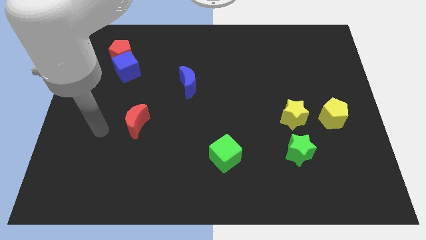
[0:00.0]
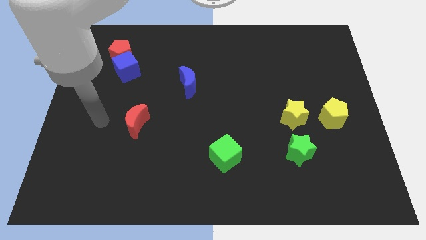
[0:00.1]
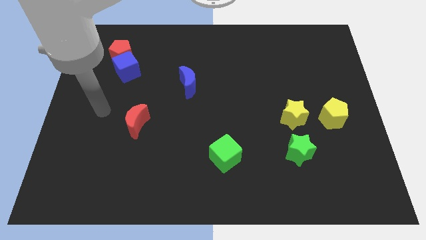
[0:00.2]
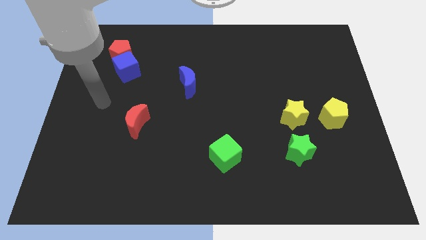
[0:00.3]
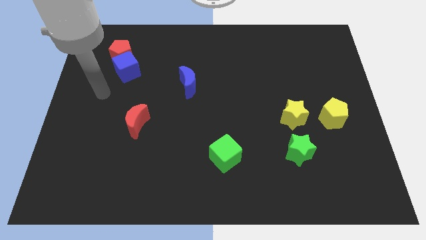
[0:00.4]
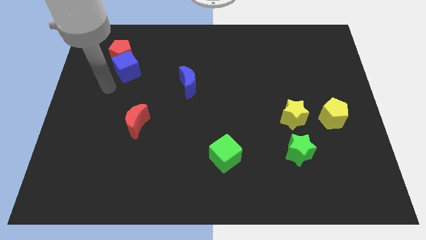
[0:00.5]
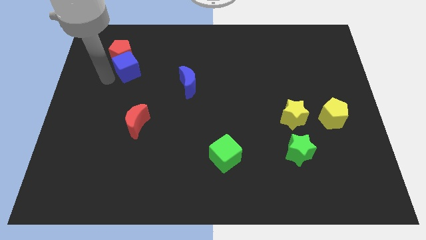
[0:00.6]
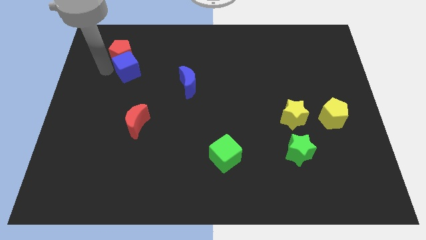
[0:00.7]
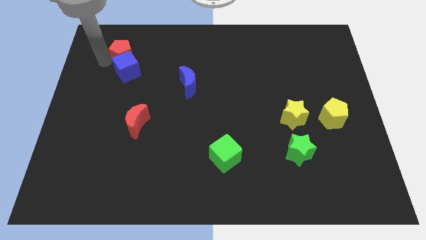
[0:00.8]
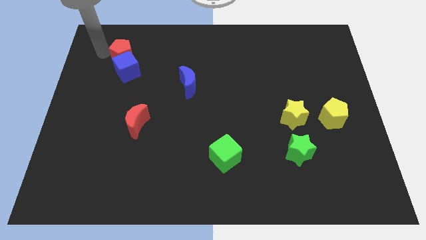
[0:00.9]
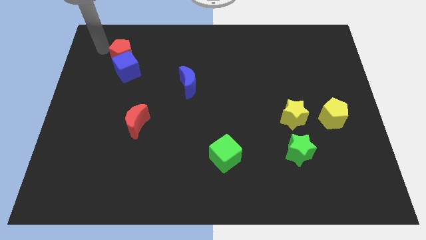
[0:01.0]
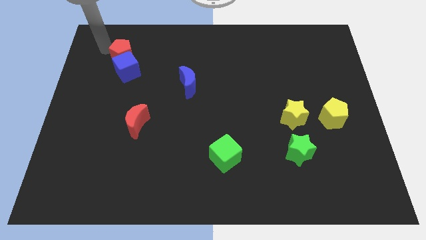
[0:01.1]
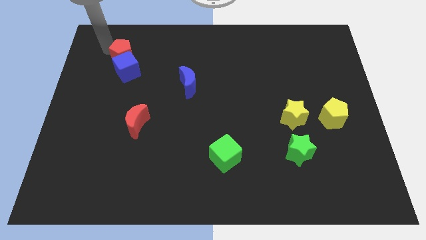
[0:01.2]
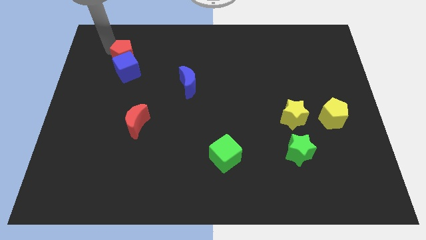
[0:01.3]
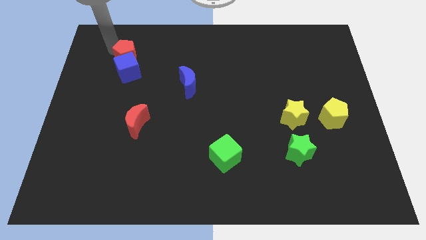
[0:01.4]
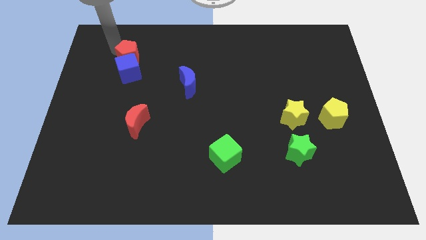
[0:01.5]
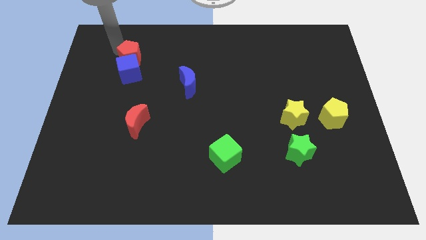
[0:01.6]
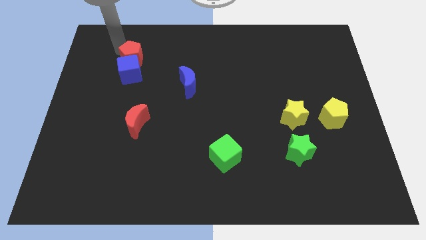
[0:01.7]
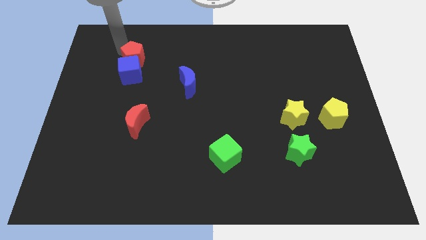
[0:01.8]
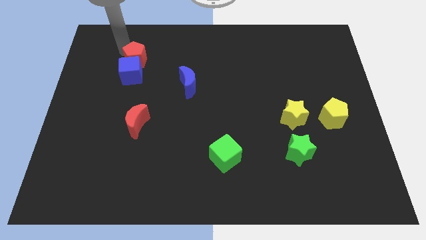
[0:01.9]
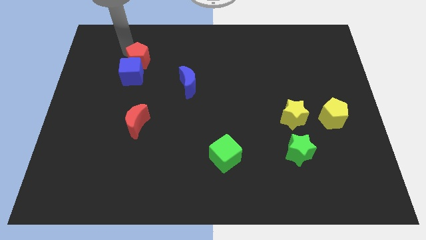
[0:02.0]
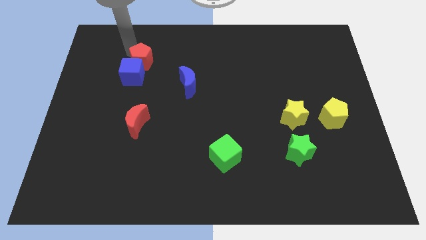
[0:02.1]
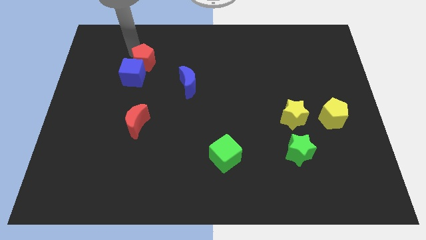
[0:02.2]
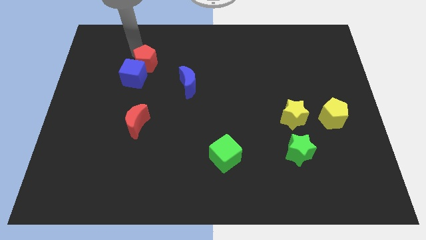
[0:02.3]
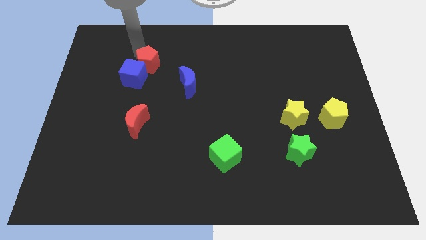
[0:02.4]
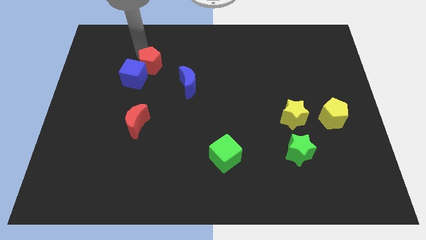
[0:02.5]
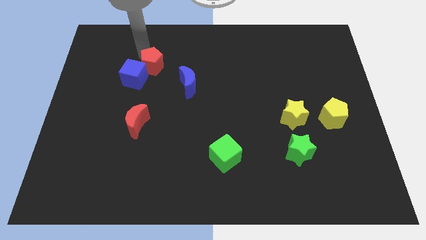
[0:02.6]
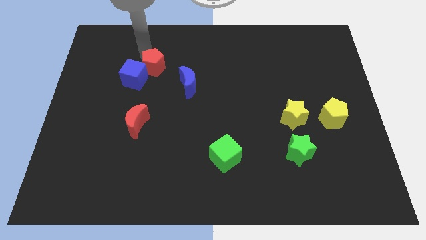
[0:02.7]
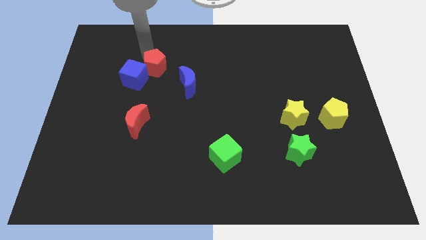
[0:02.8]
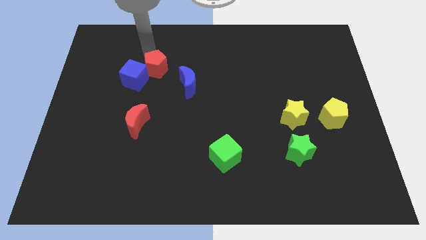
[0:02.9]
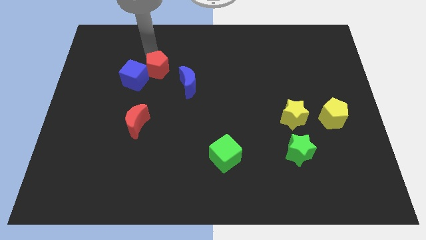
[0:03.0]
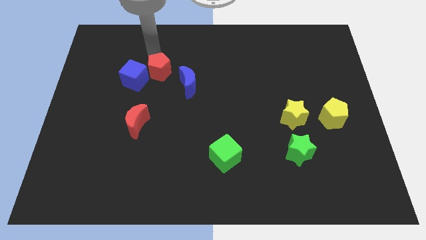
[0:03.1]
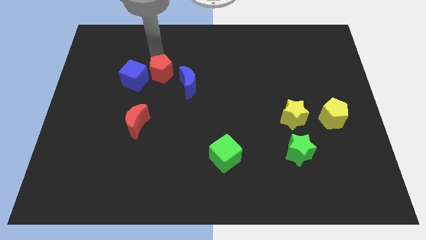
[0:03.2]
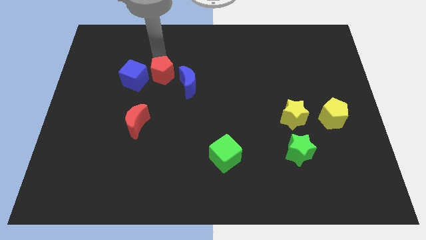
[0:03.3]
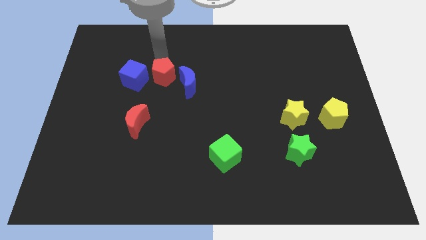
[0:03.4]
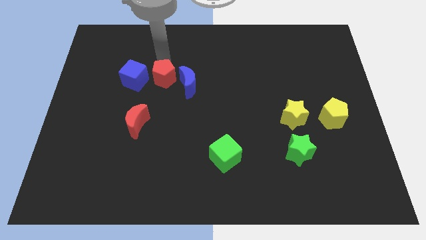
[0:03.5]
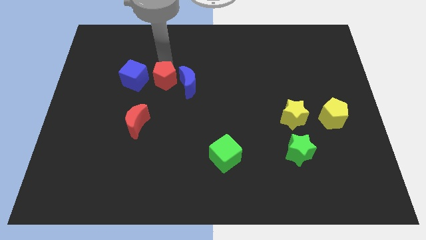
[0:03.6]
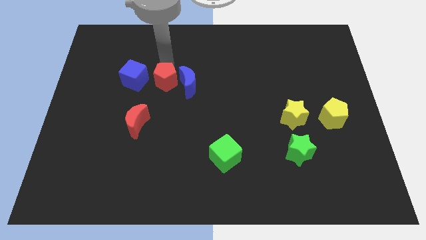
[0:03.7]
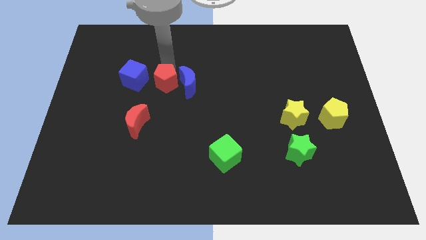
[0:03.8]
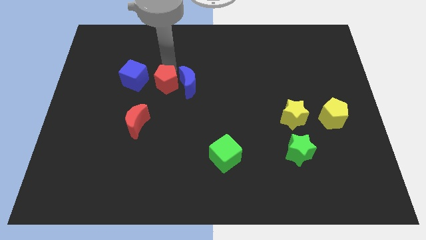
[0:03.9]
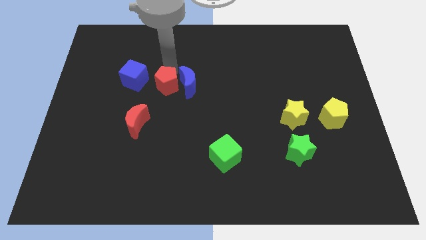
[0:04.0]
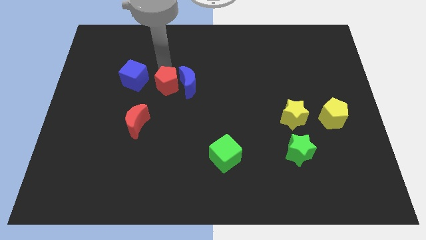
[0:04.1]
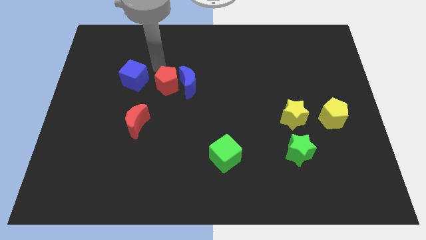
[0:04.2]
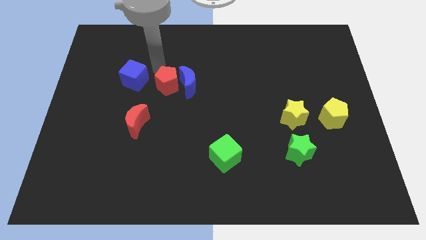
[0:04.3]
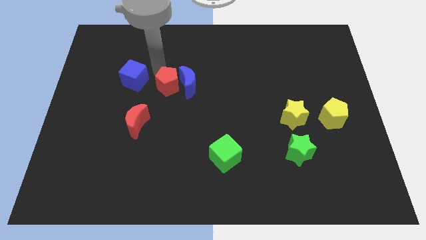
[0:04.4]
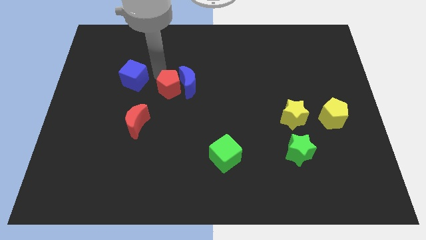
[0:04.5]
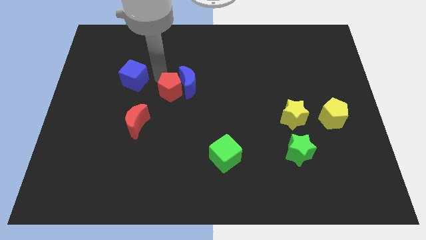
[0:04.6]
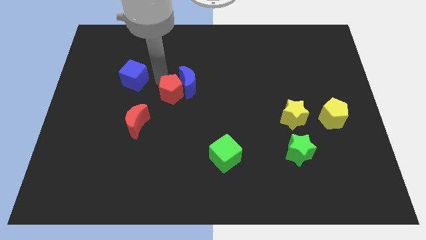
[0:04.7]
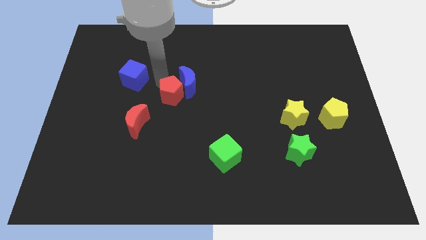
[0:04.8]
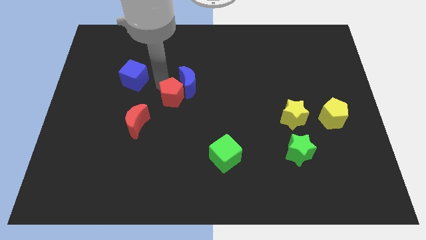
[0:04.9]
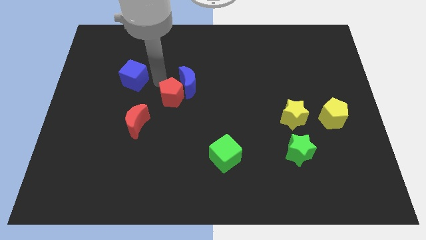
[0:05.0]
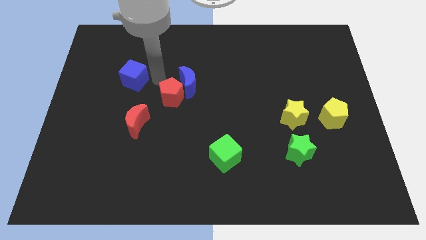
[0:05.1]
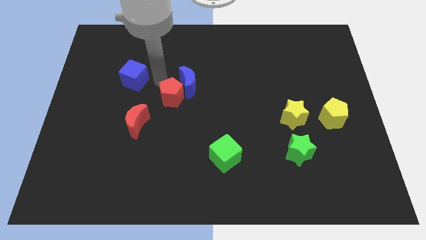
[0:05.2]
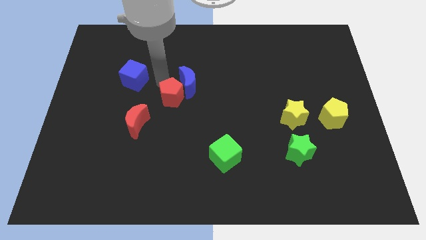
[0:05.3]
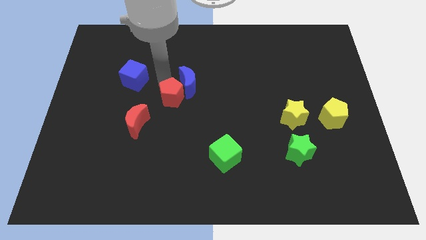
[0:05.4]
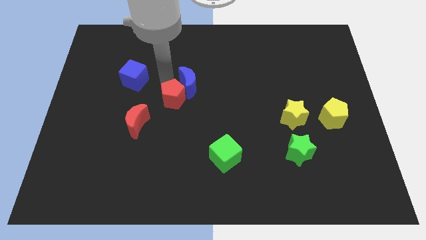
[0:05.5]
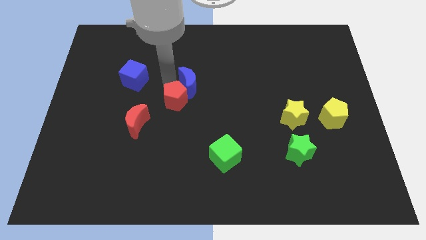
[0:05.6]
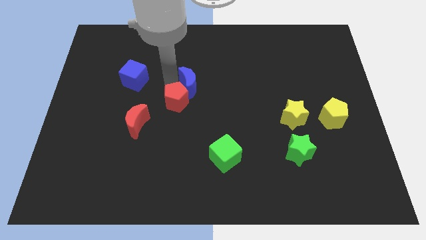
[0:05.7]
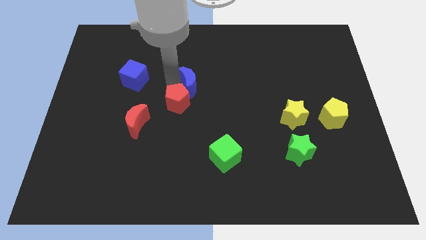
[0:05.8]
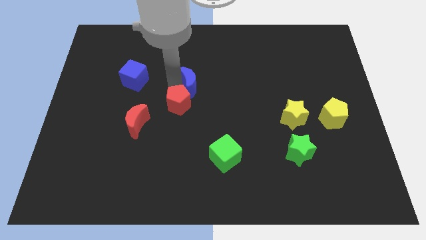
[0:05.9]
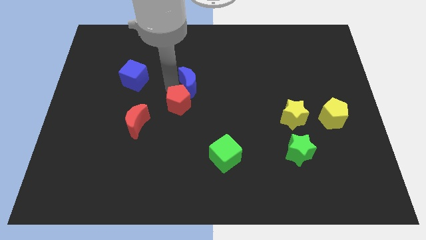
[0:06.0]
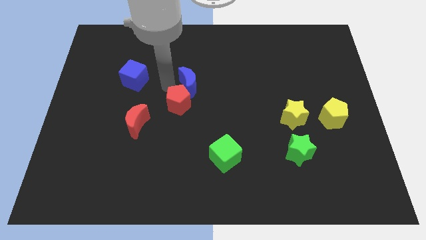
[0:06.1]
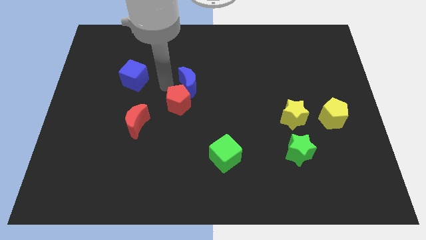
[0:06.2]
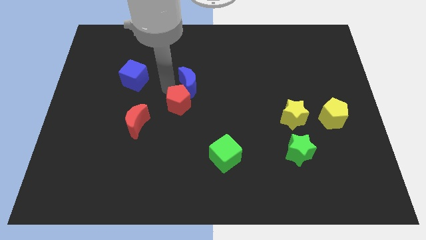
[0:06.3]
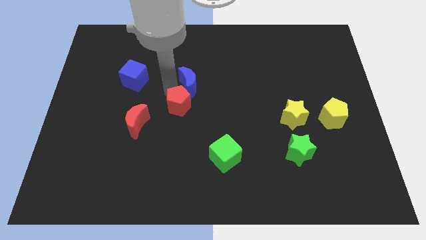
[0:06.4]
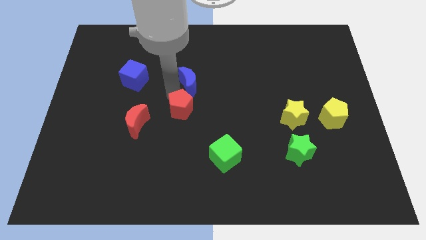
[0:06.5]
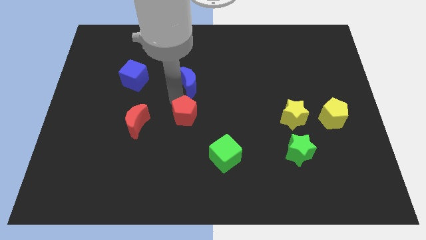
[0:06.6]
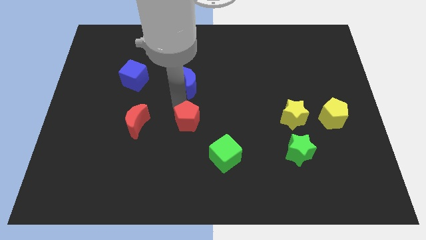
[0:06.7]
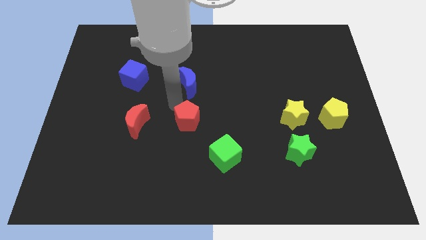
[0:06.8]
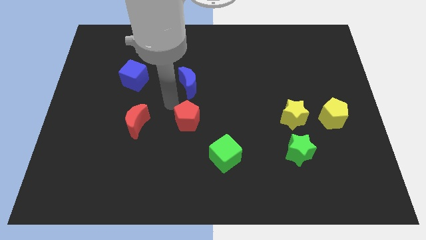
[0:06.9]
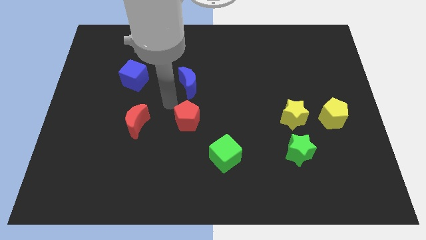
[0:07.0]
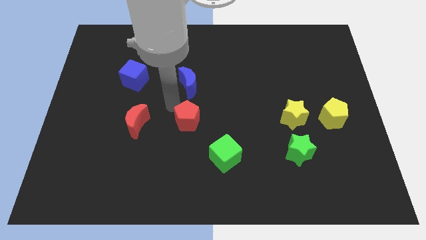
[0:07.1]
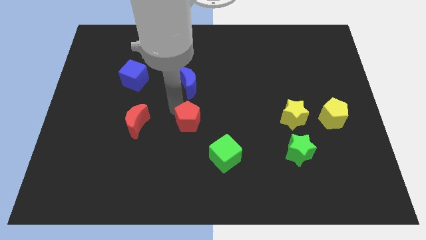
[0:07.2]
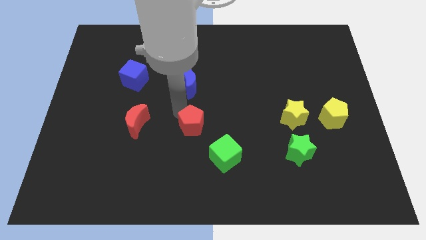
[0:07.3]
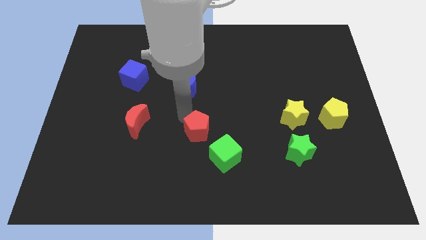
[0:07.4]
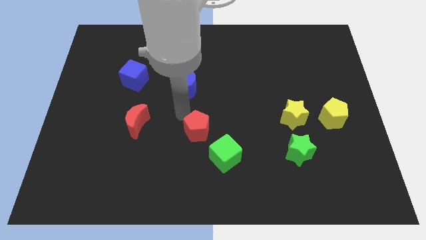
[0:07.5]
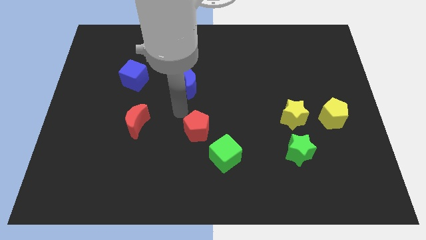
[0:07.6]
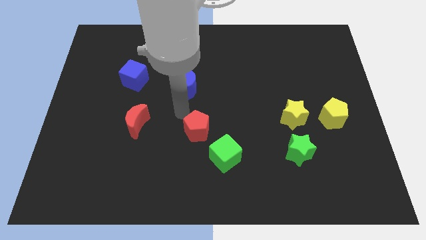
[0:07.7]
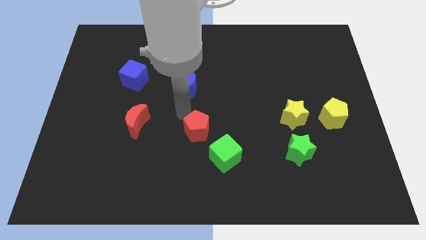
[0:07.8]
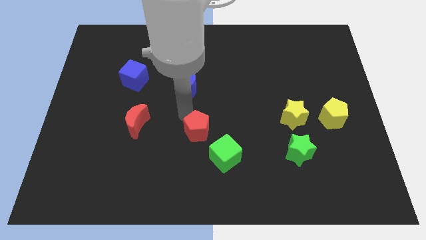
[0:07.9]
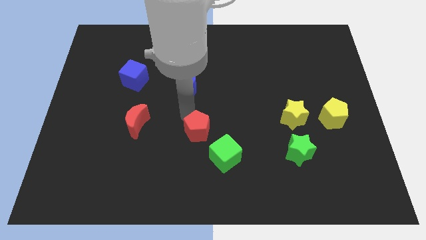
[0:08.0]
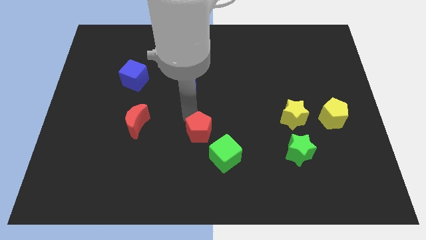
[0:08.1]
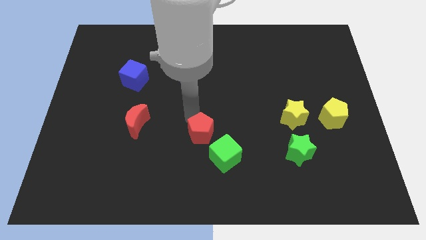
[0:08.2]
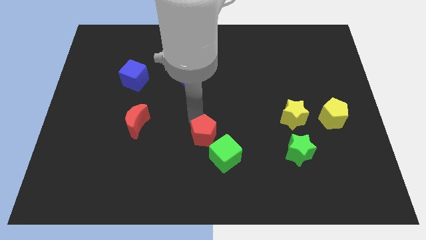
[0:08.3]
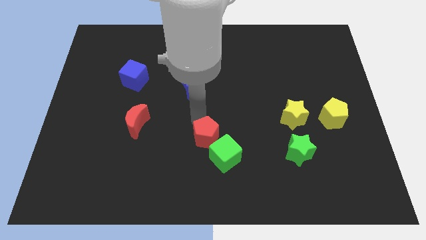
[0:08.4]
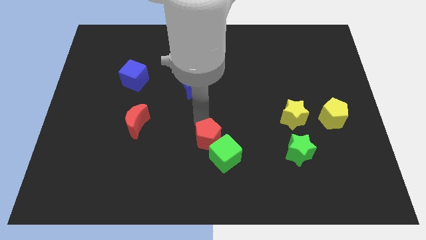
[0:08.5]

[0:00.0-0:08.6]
slide the red pentagon close to the green cube
